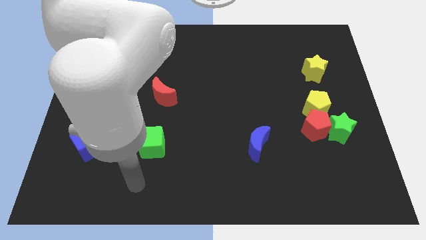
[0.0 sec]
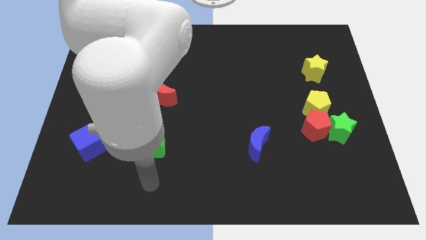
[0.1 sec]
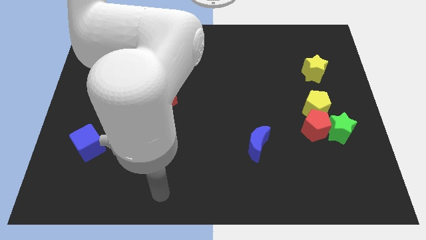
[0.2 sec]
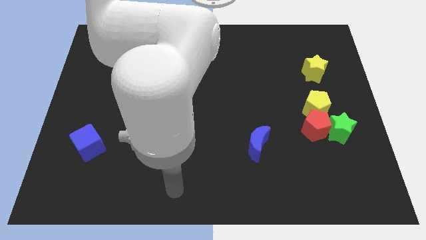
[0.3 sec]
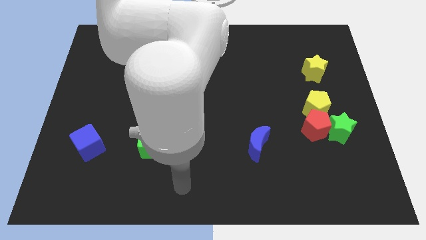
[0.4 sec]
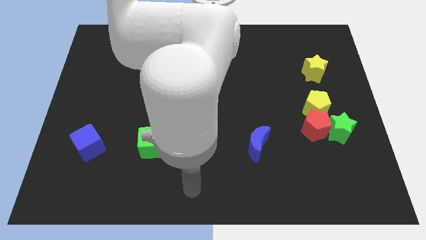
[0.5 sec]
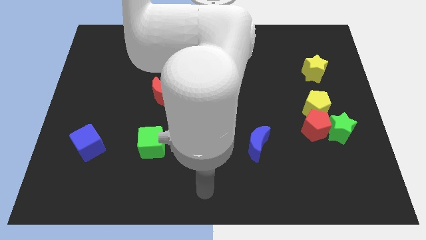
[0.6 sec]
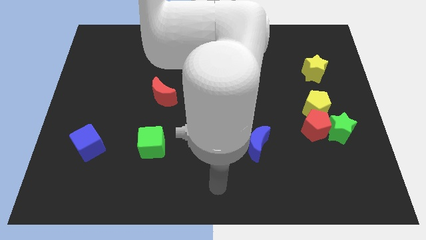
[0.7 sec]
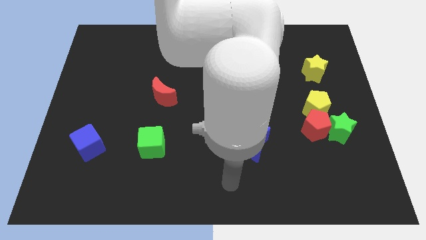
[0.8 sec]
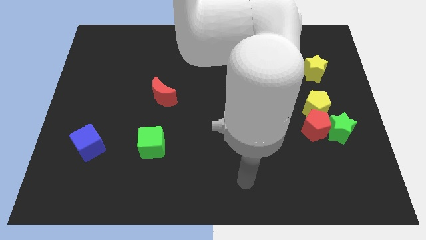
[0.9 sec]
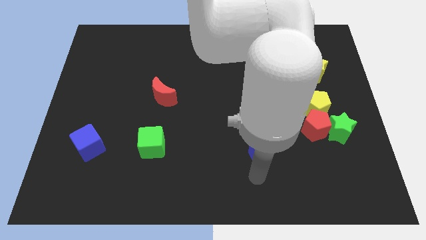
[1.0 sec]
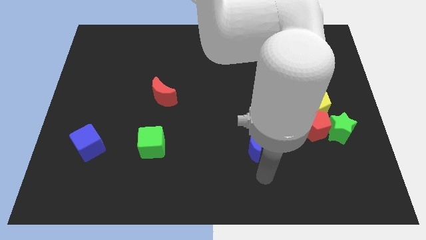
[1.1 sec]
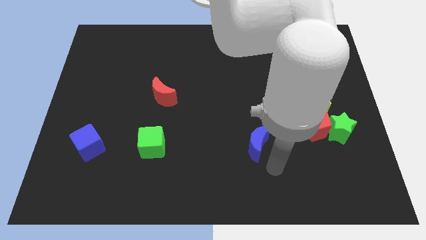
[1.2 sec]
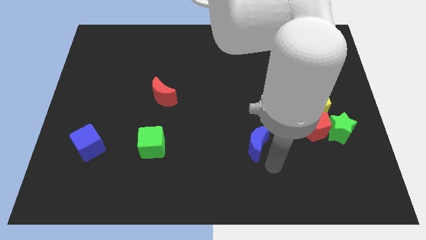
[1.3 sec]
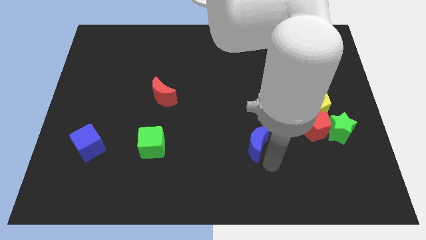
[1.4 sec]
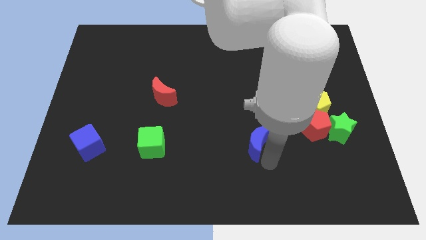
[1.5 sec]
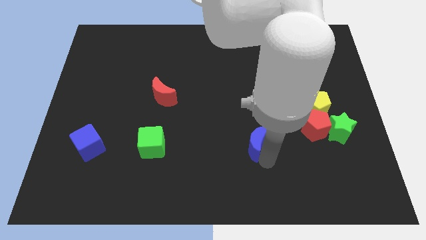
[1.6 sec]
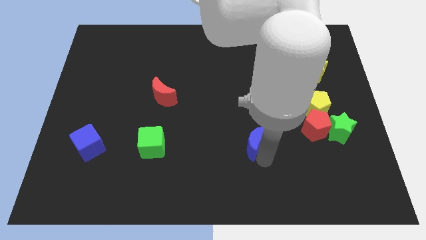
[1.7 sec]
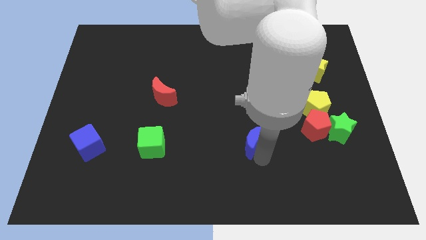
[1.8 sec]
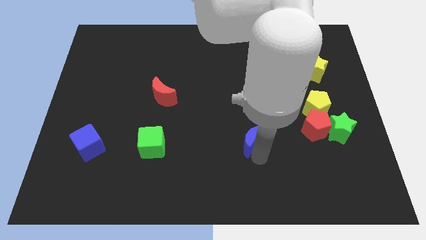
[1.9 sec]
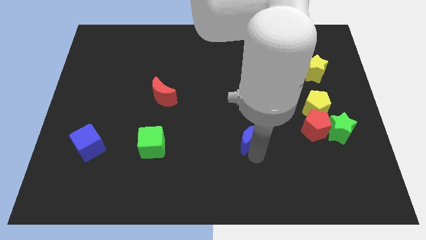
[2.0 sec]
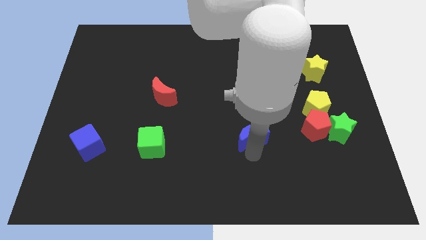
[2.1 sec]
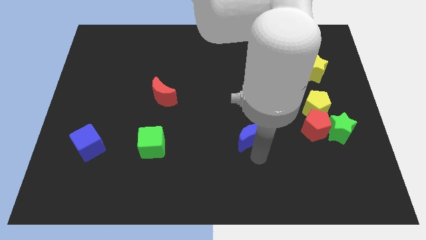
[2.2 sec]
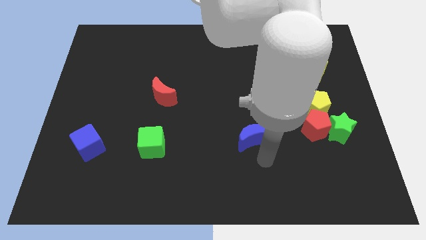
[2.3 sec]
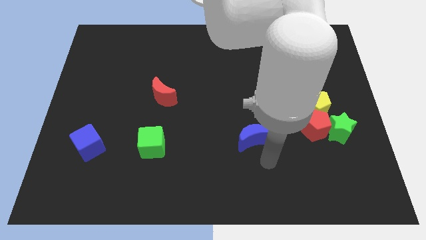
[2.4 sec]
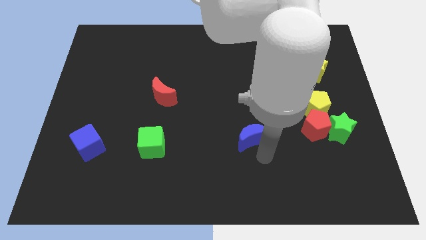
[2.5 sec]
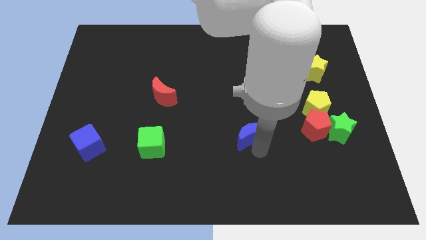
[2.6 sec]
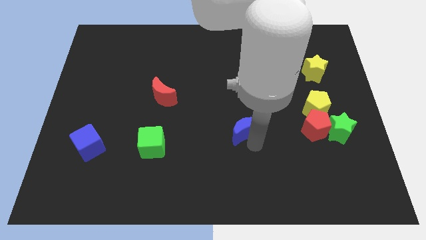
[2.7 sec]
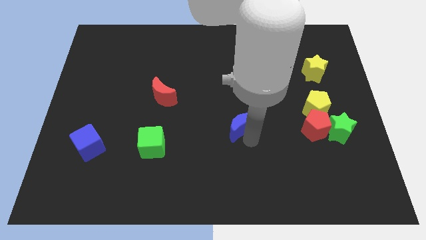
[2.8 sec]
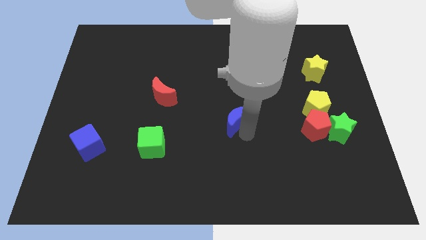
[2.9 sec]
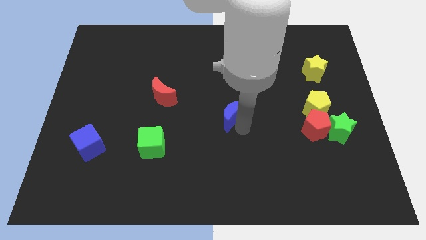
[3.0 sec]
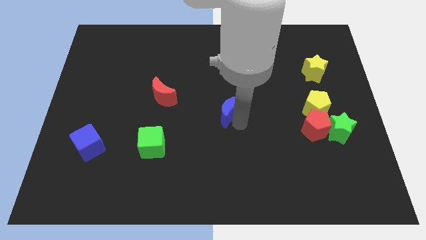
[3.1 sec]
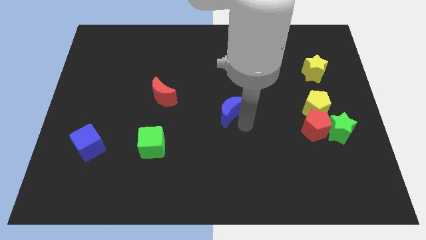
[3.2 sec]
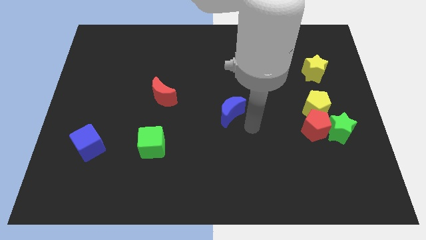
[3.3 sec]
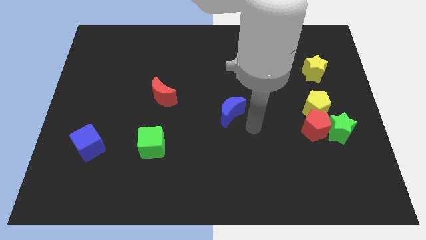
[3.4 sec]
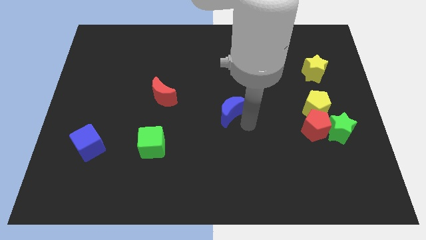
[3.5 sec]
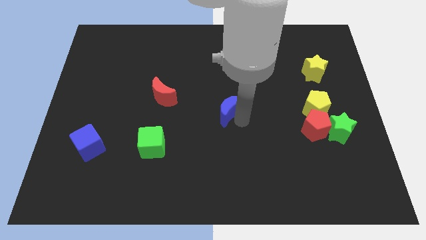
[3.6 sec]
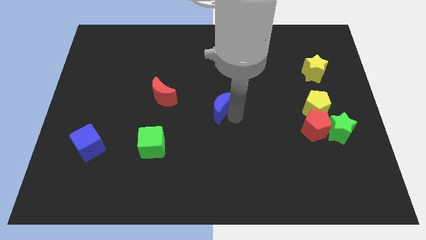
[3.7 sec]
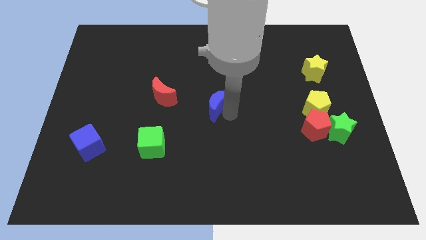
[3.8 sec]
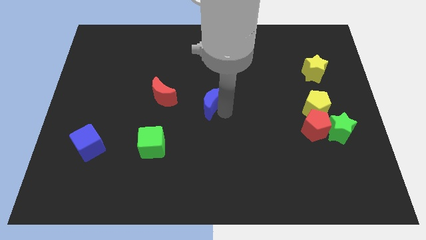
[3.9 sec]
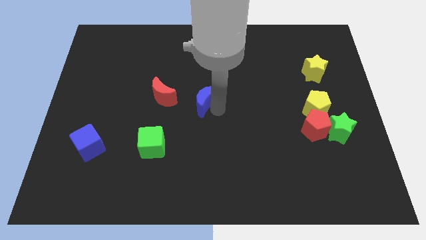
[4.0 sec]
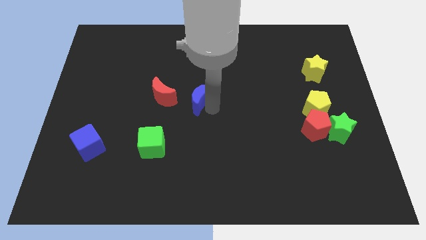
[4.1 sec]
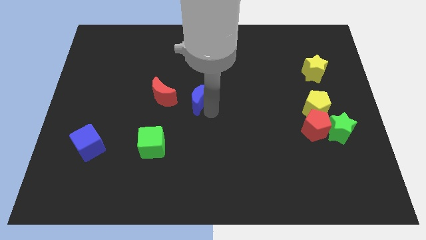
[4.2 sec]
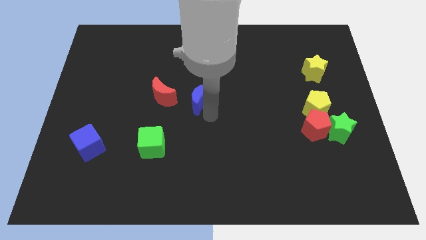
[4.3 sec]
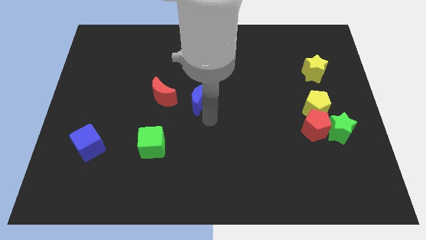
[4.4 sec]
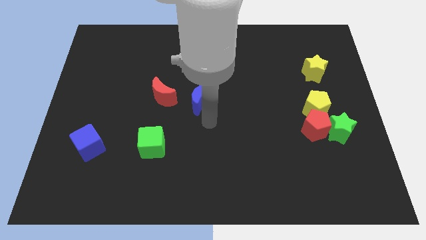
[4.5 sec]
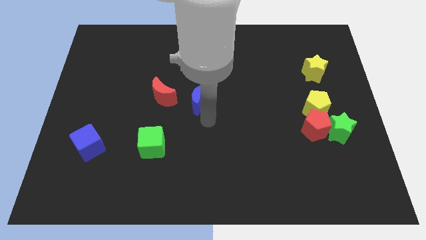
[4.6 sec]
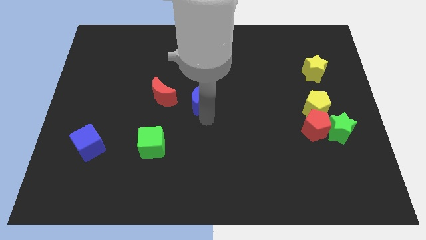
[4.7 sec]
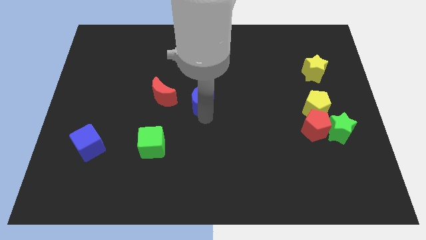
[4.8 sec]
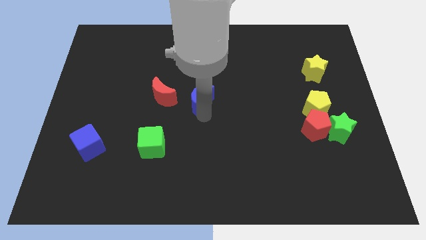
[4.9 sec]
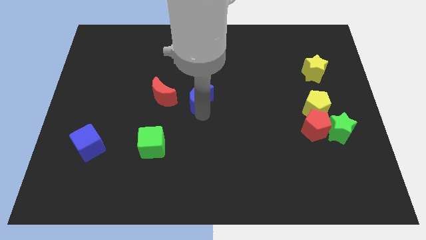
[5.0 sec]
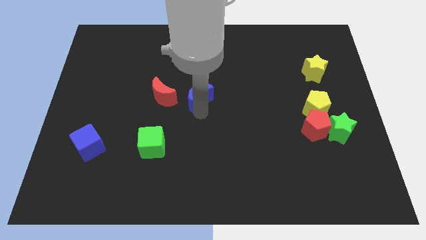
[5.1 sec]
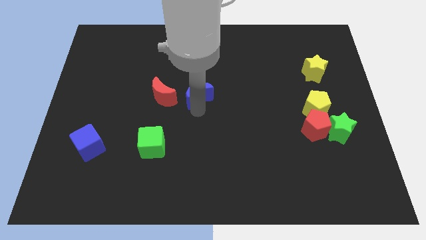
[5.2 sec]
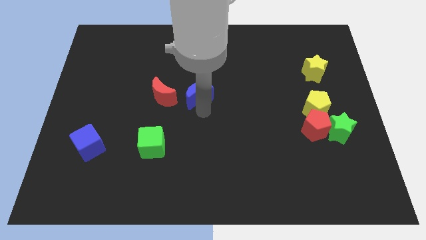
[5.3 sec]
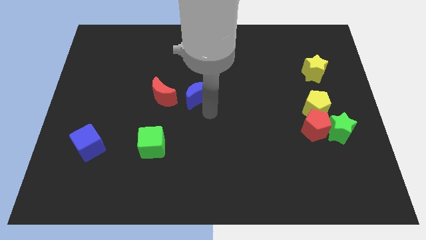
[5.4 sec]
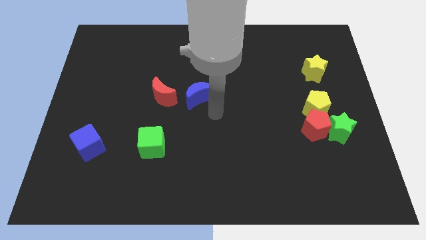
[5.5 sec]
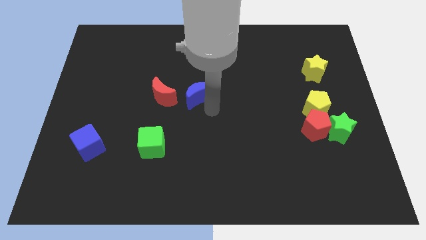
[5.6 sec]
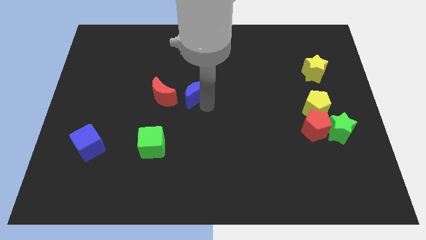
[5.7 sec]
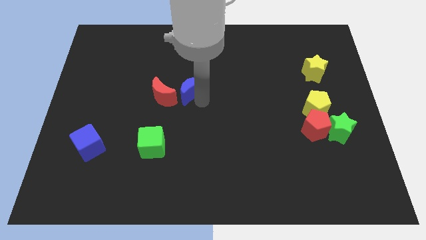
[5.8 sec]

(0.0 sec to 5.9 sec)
push the blue moon up and to the left

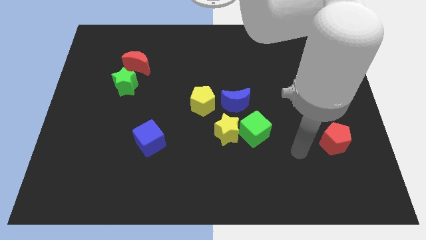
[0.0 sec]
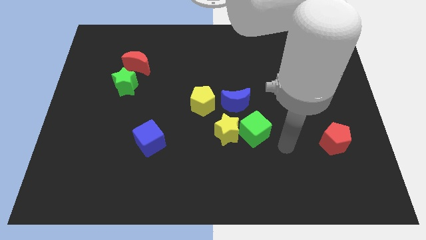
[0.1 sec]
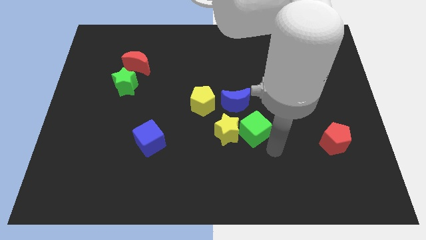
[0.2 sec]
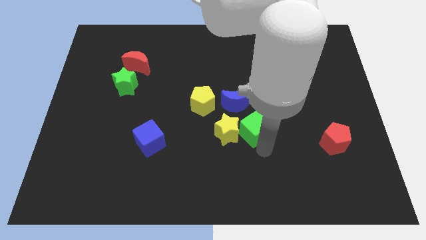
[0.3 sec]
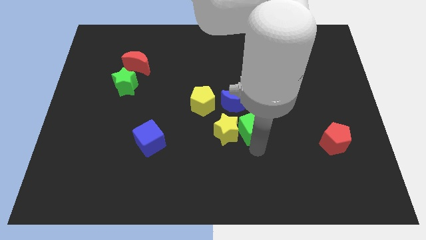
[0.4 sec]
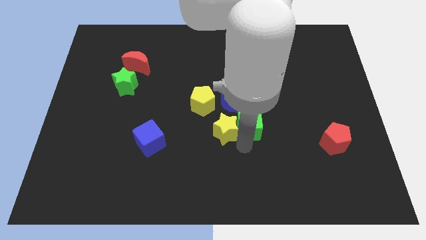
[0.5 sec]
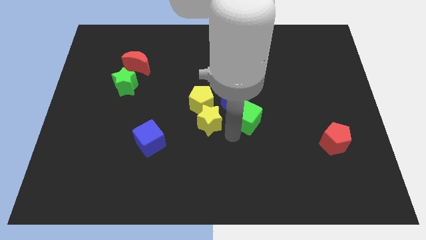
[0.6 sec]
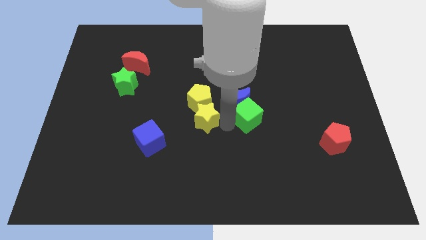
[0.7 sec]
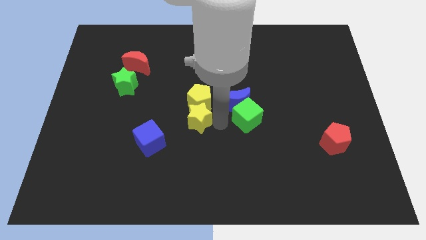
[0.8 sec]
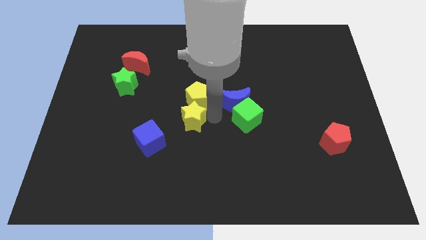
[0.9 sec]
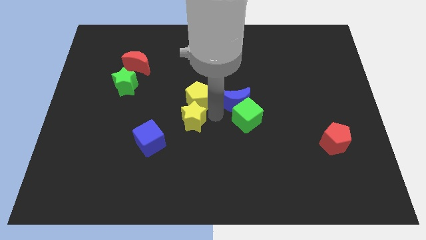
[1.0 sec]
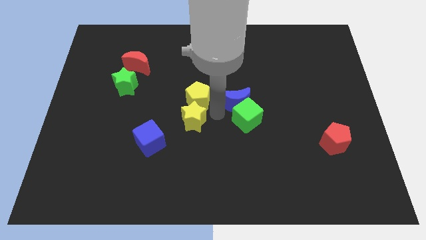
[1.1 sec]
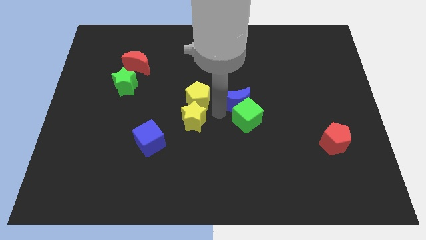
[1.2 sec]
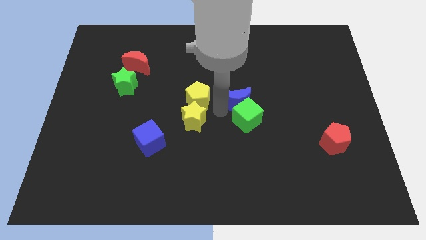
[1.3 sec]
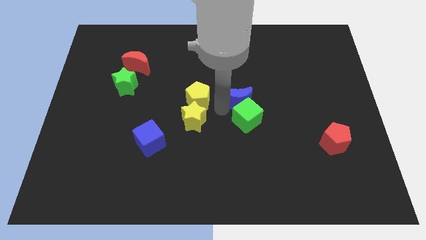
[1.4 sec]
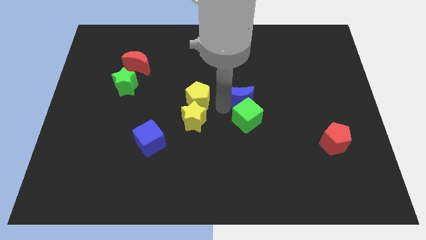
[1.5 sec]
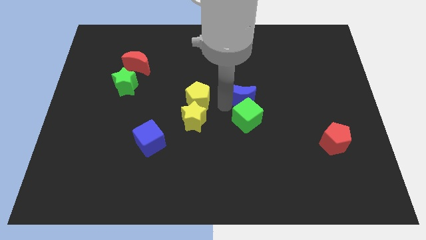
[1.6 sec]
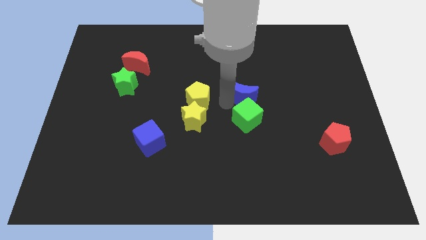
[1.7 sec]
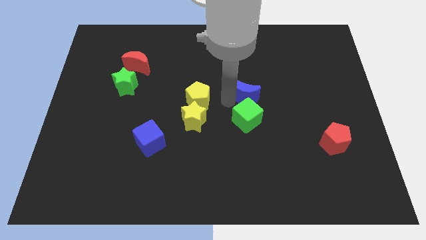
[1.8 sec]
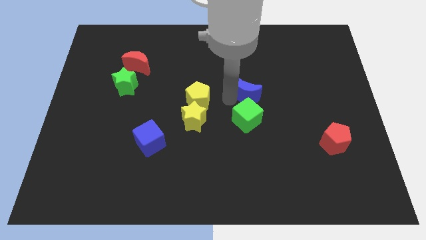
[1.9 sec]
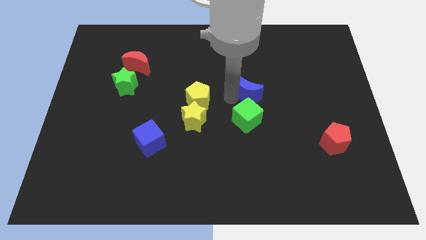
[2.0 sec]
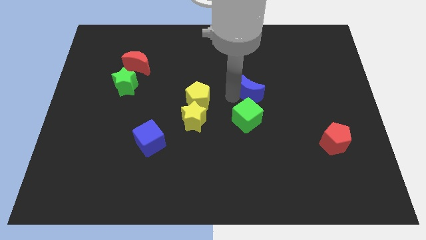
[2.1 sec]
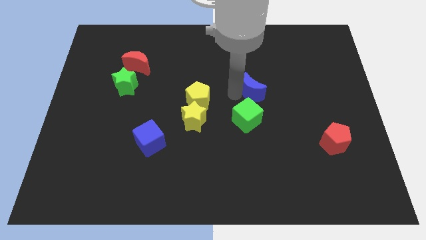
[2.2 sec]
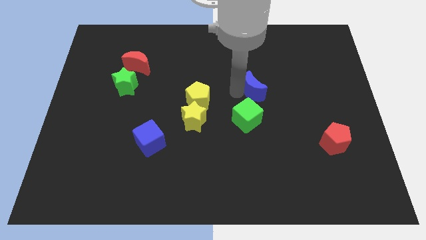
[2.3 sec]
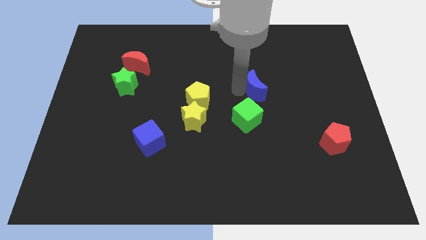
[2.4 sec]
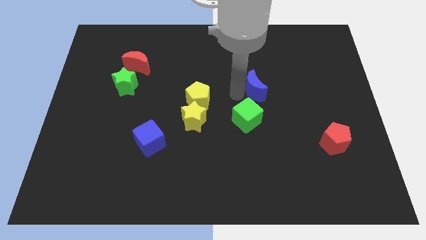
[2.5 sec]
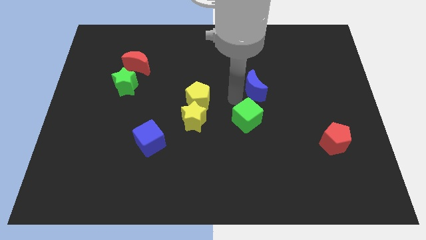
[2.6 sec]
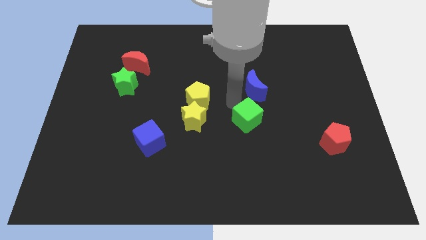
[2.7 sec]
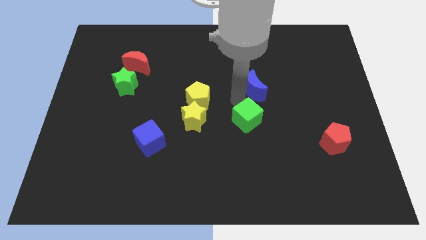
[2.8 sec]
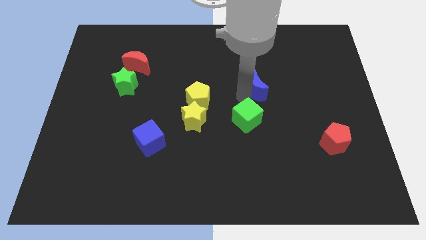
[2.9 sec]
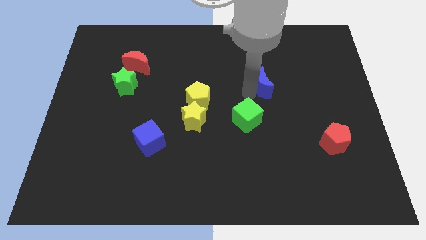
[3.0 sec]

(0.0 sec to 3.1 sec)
slightly move the blue moon upwards and right
